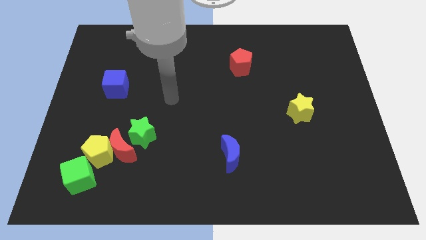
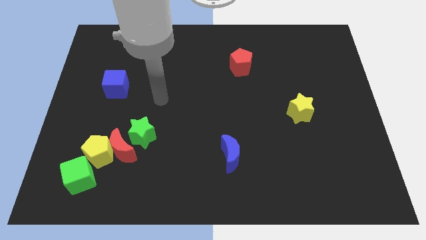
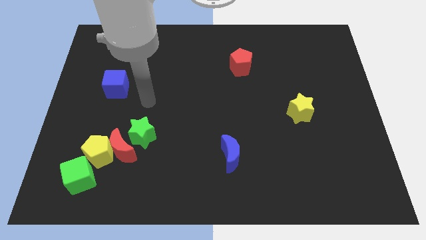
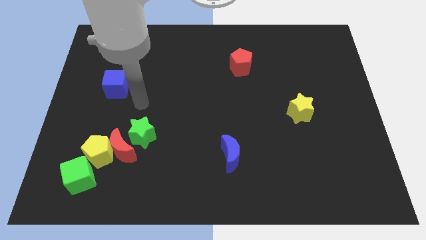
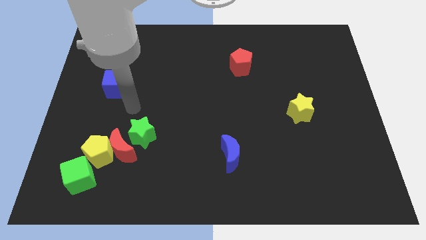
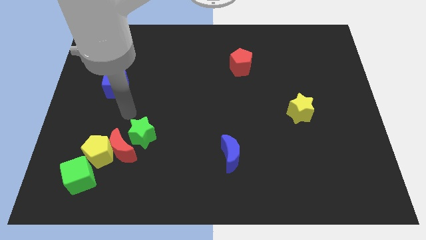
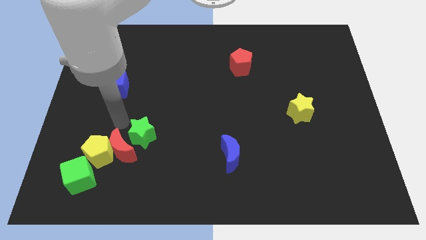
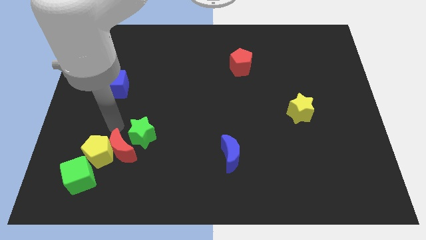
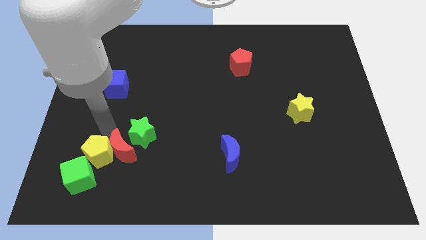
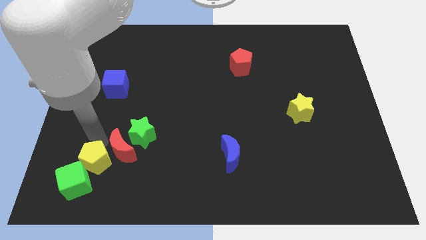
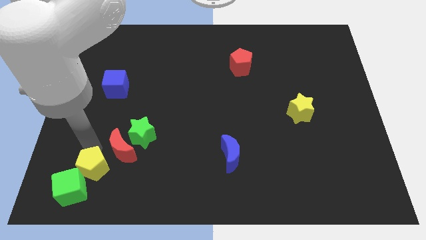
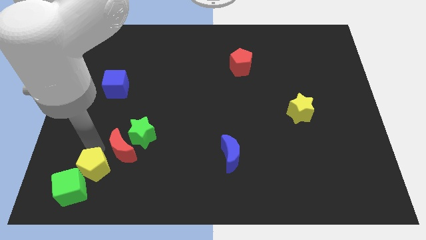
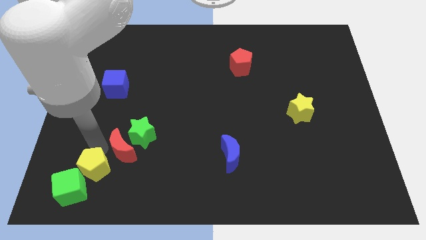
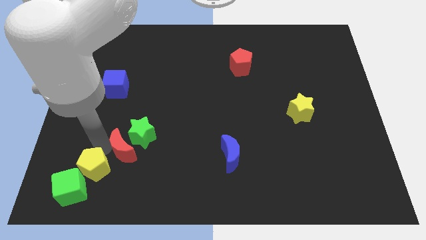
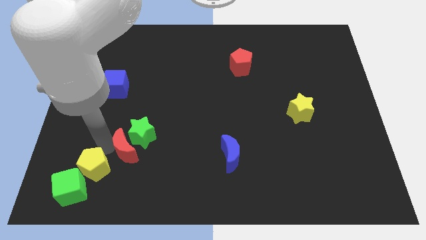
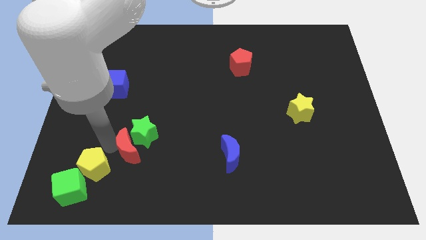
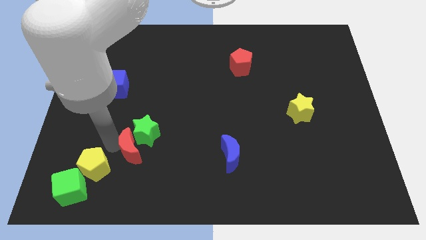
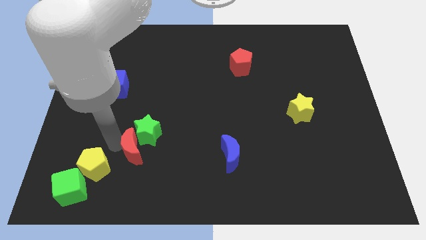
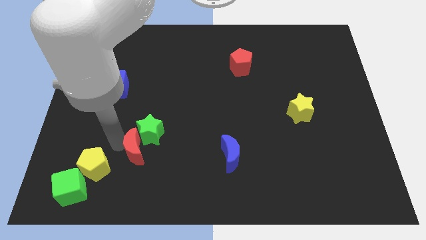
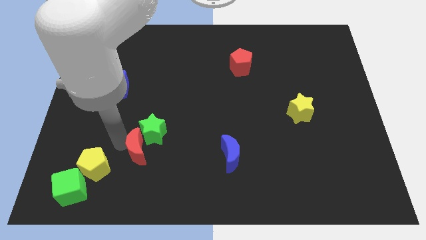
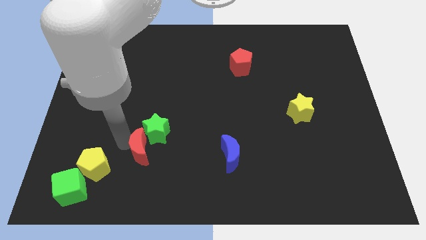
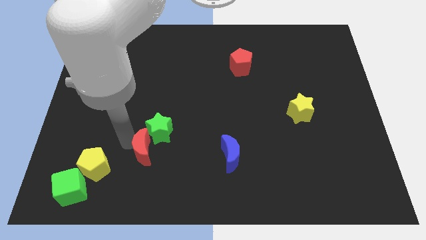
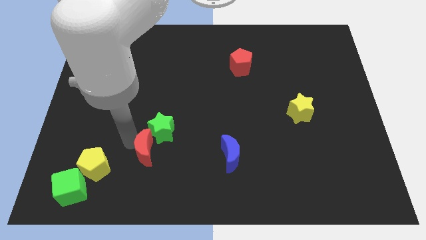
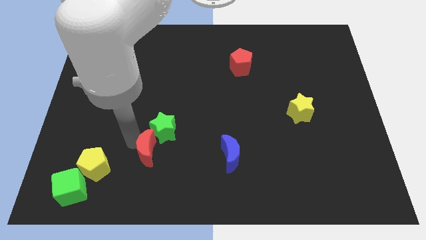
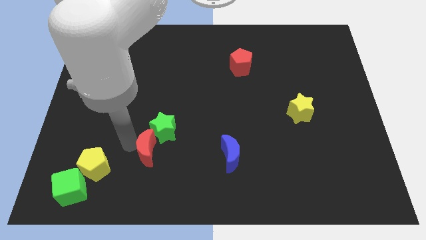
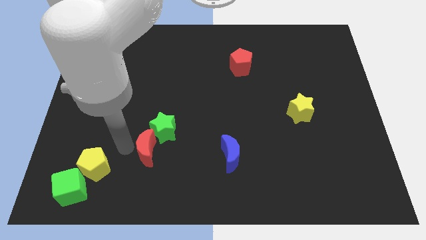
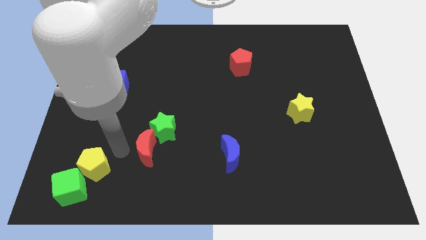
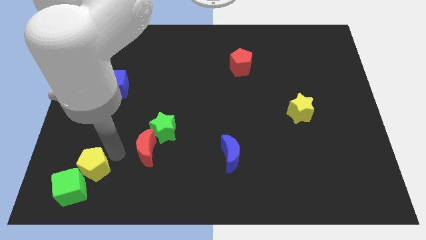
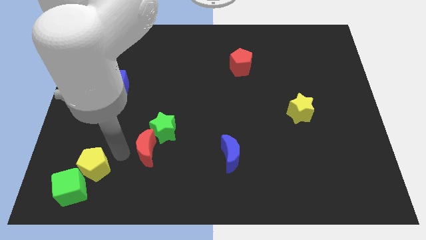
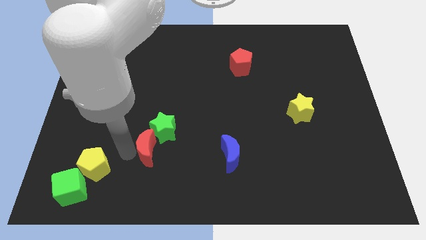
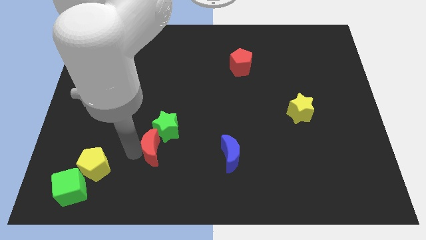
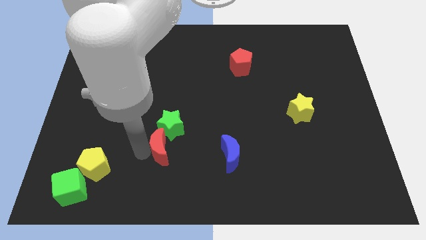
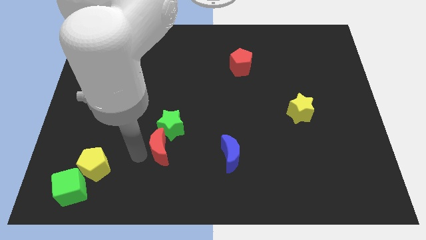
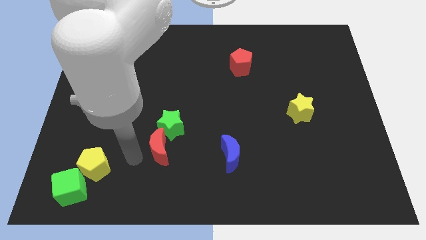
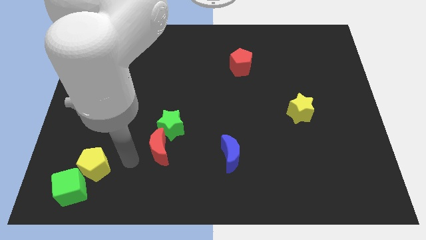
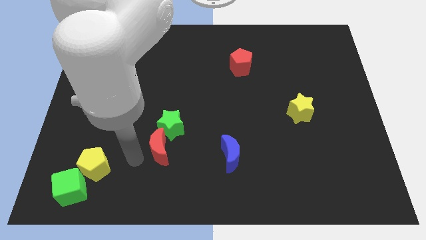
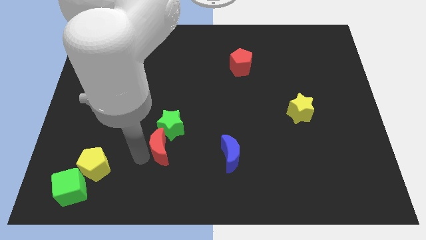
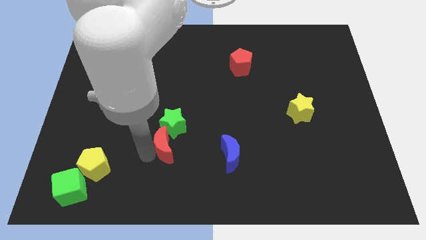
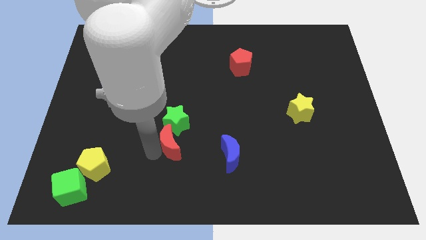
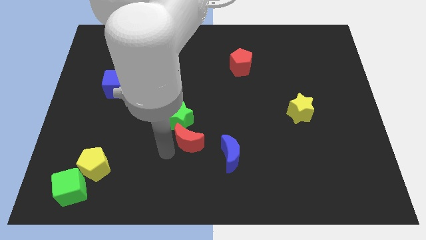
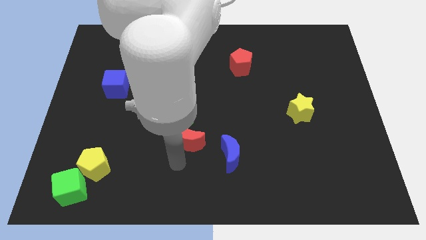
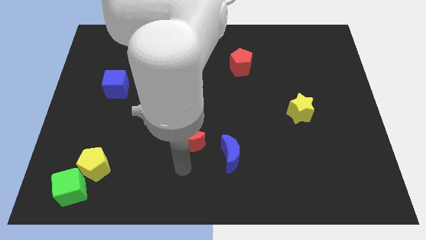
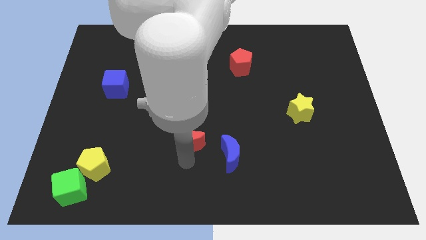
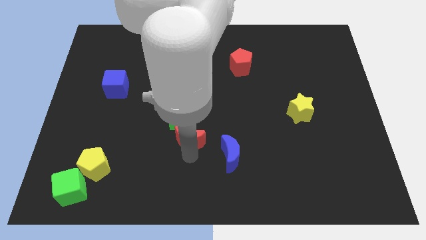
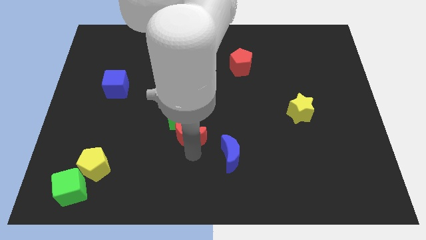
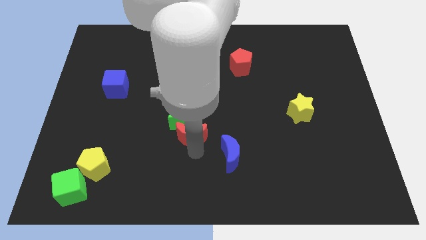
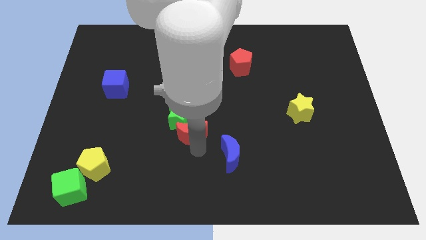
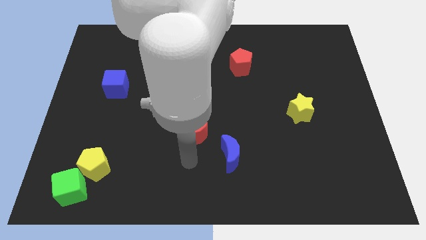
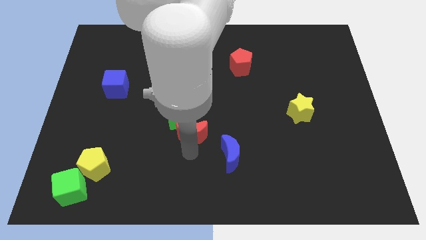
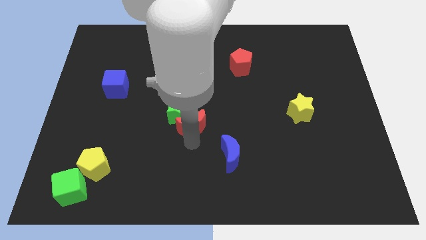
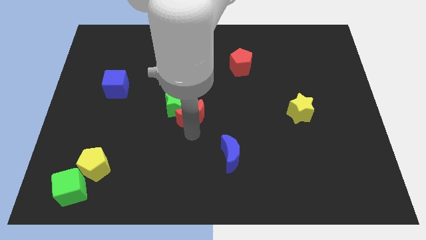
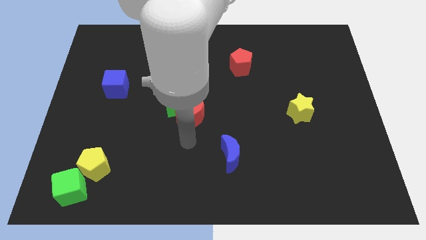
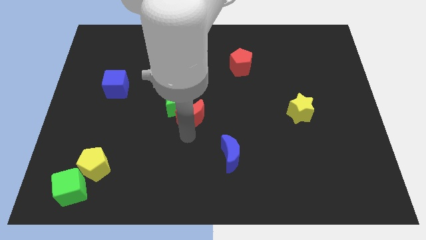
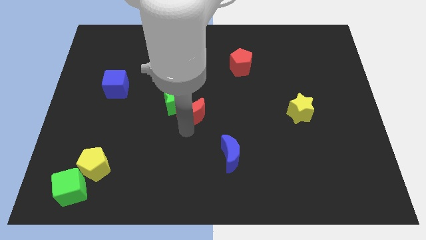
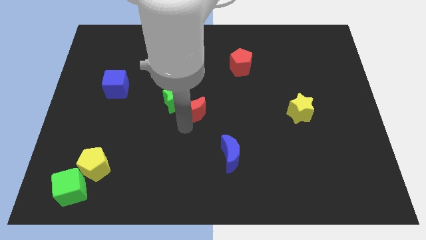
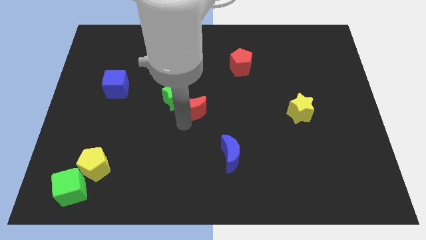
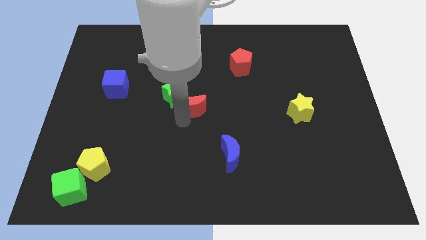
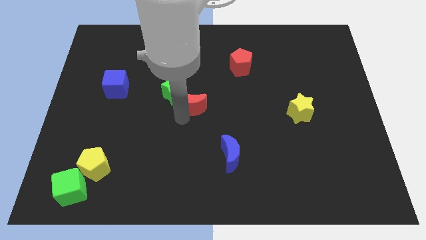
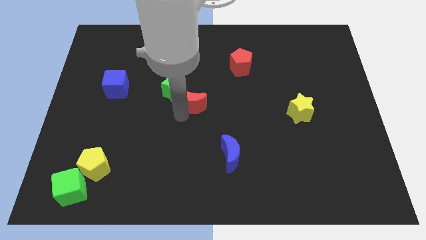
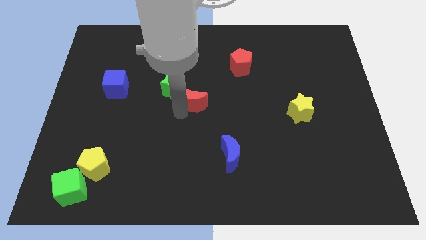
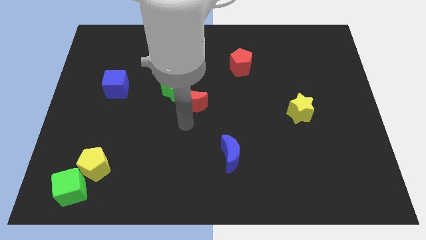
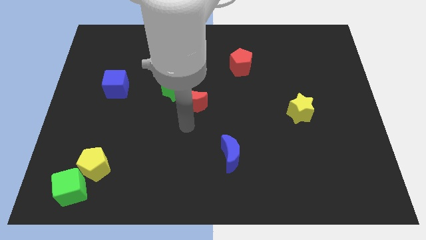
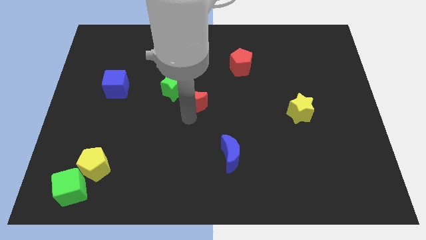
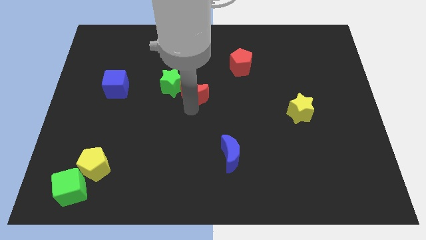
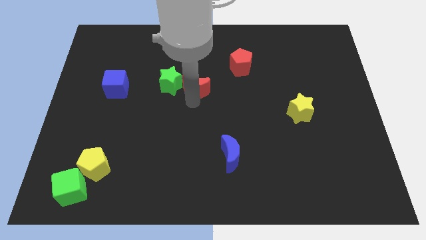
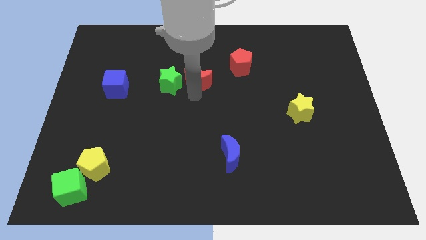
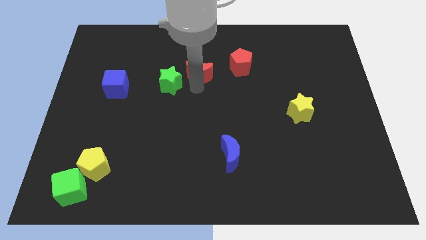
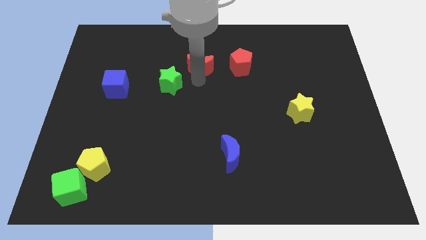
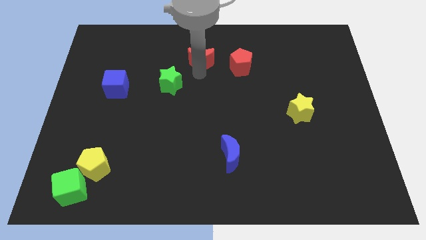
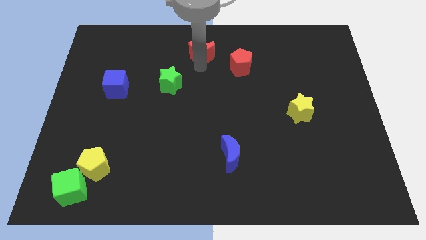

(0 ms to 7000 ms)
push the red moon to the towards your base

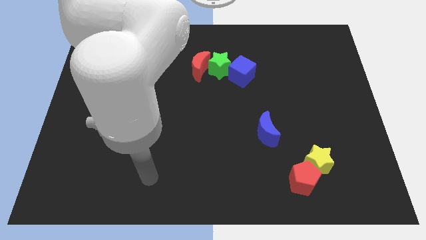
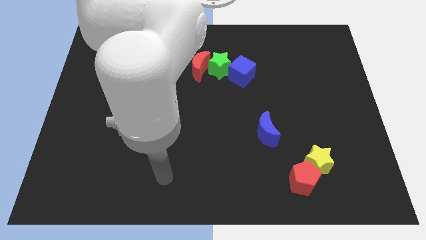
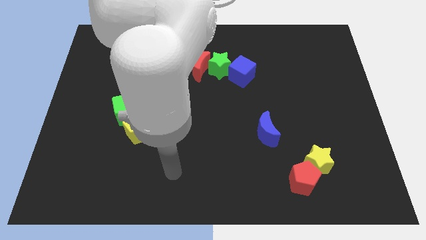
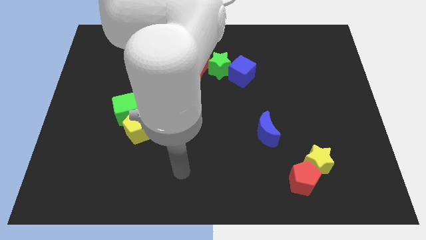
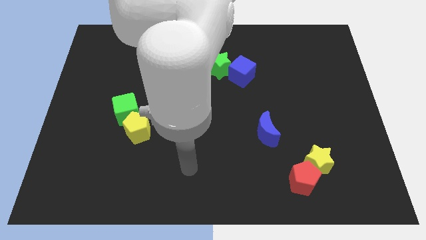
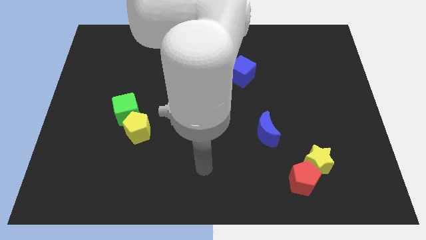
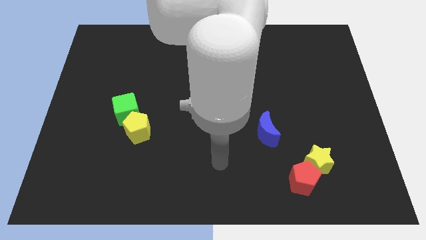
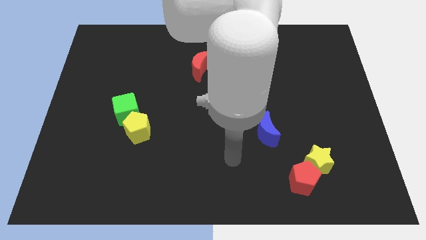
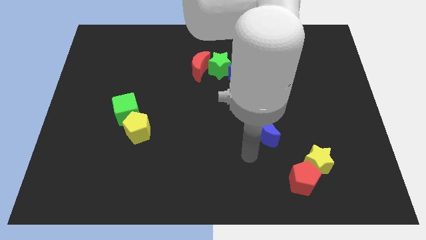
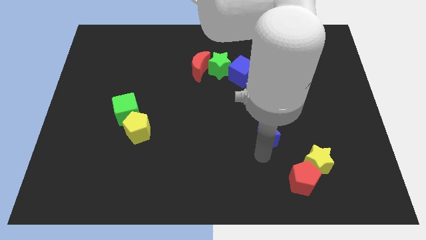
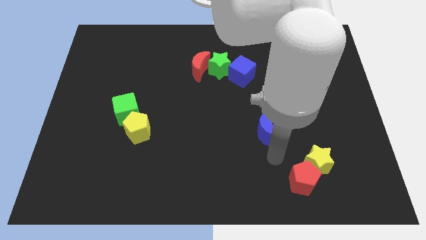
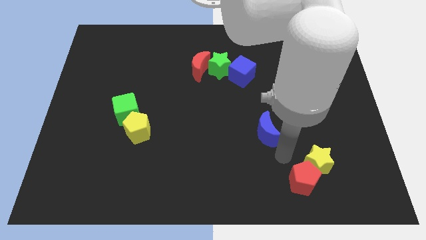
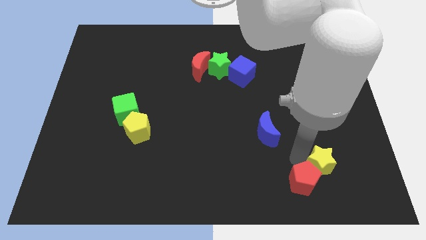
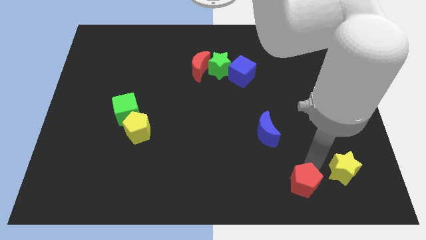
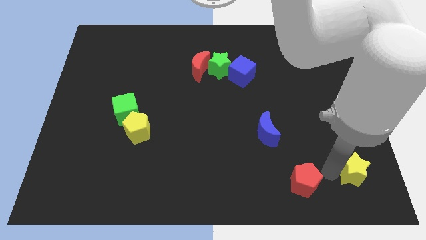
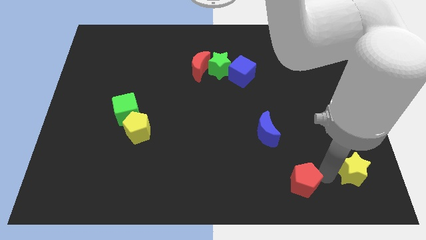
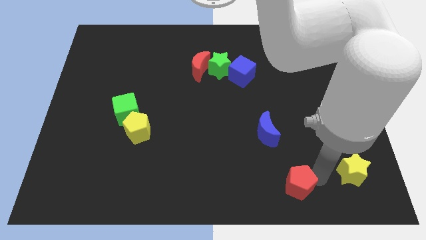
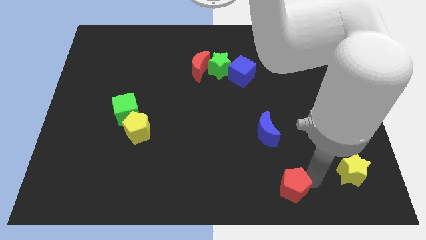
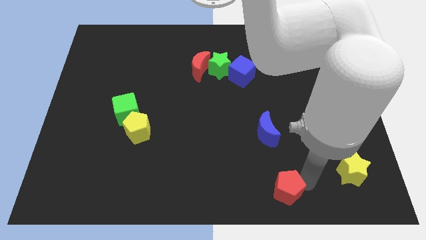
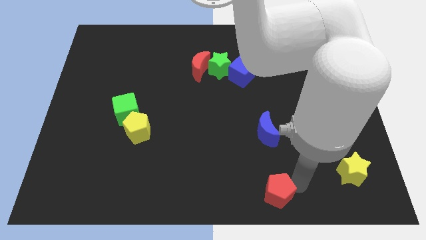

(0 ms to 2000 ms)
move the red pentagon to the bottom side
